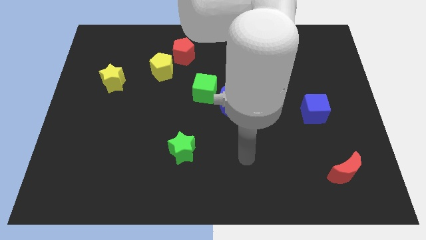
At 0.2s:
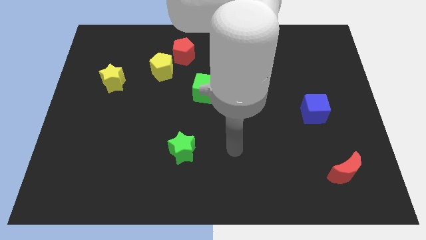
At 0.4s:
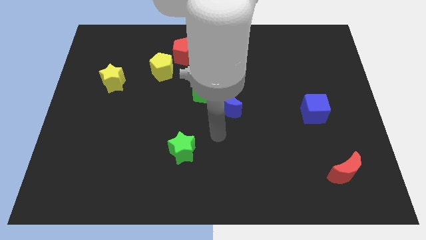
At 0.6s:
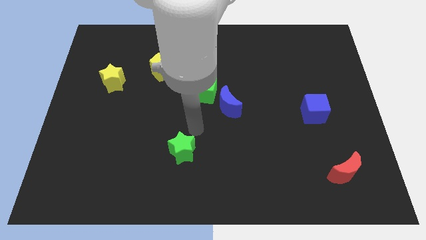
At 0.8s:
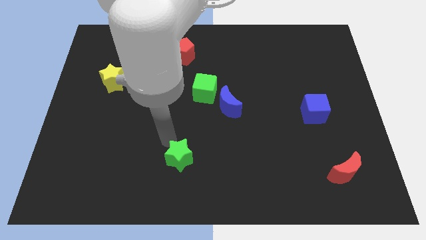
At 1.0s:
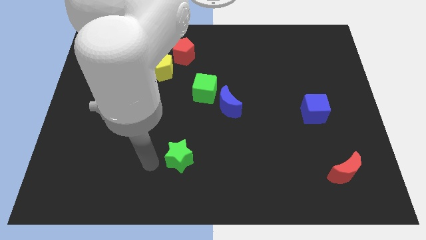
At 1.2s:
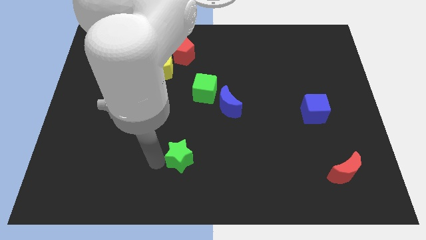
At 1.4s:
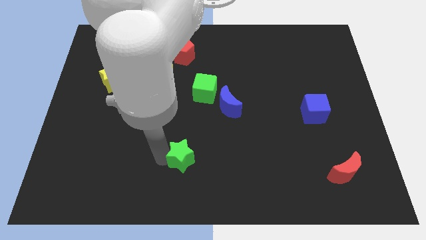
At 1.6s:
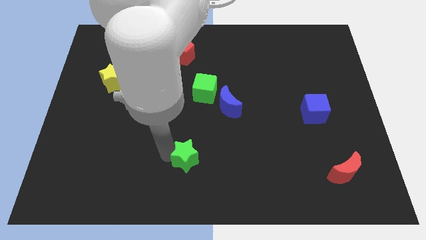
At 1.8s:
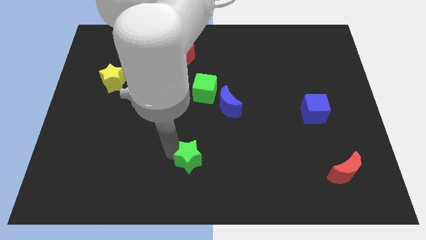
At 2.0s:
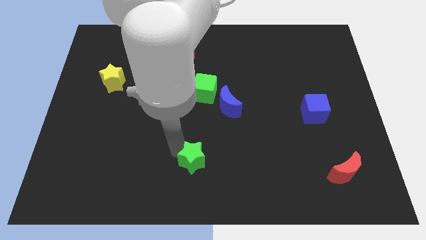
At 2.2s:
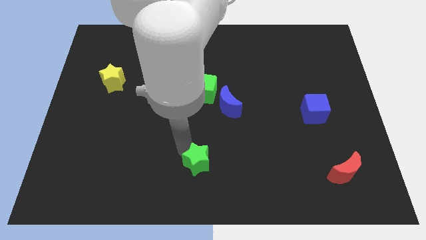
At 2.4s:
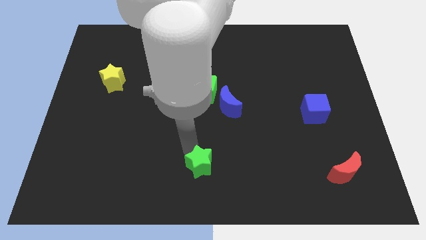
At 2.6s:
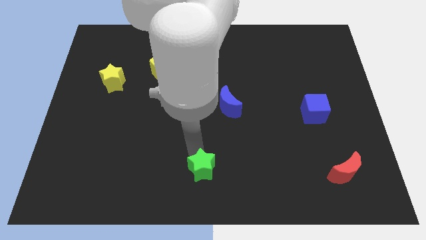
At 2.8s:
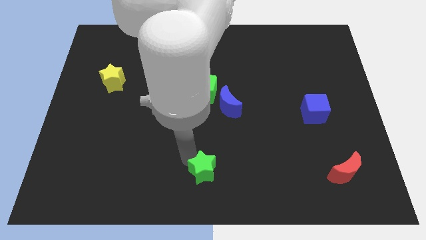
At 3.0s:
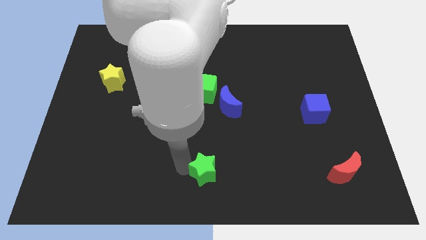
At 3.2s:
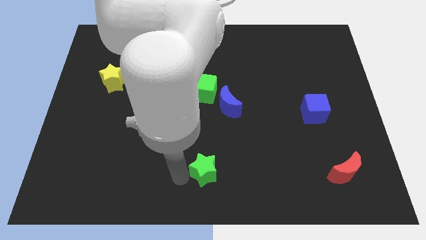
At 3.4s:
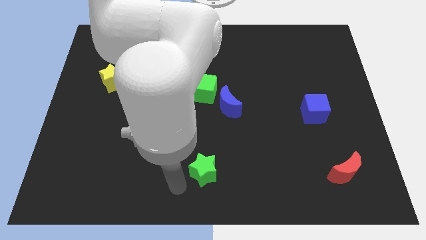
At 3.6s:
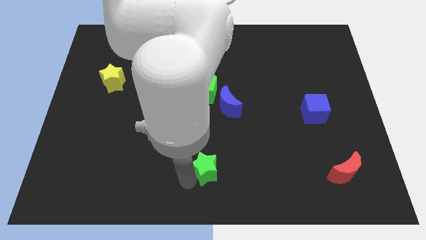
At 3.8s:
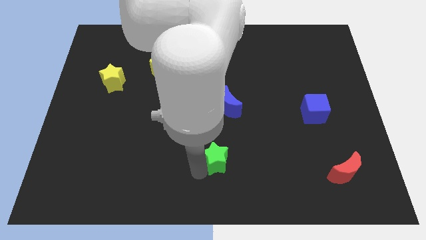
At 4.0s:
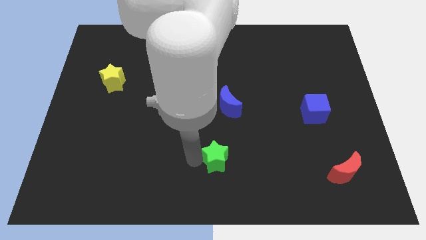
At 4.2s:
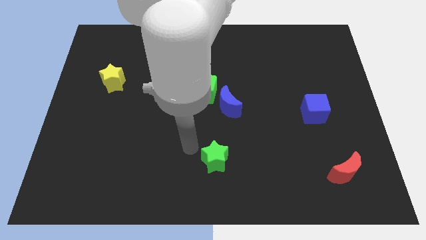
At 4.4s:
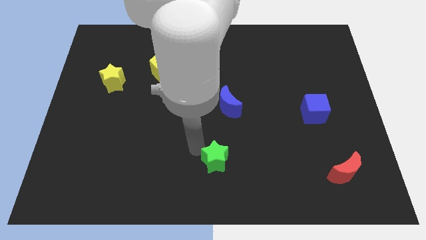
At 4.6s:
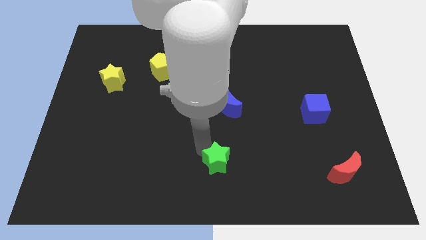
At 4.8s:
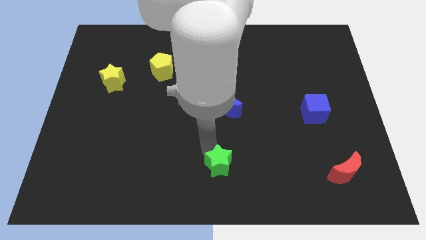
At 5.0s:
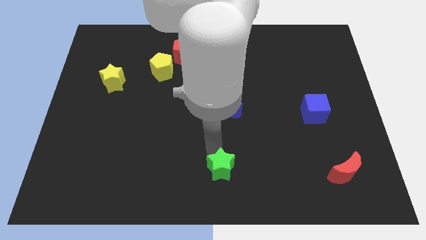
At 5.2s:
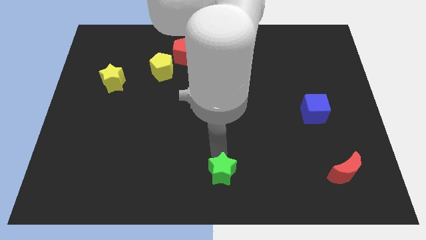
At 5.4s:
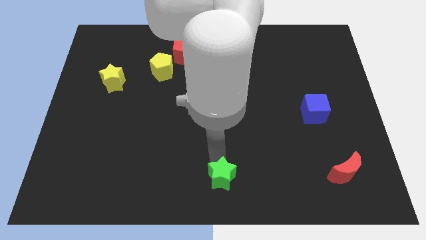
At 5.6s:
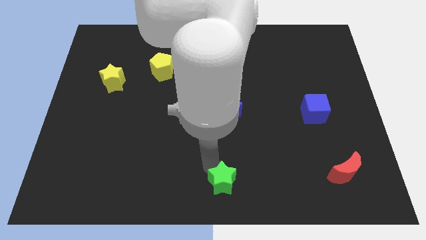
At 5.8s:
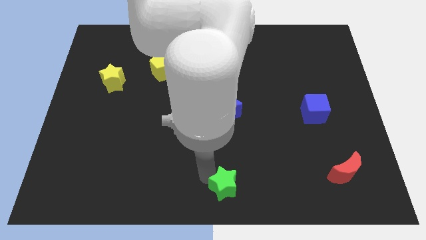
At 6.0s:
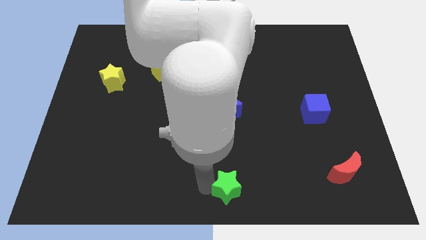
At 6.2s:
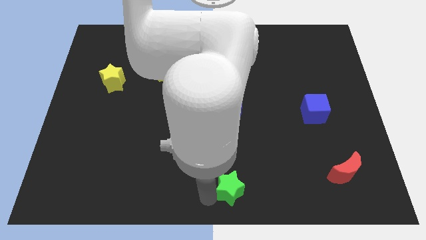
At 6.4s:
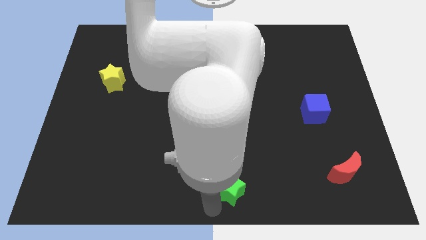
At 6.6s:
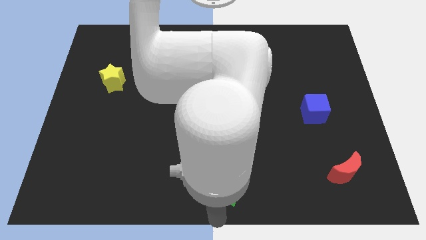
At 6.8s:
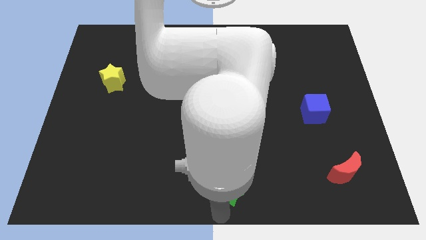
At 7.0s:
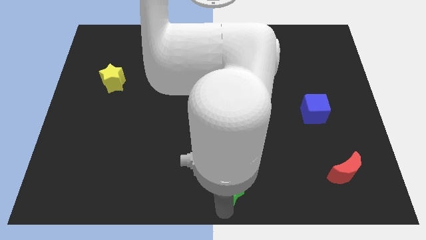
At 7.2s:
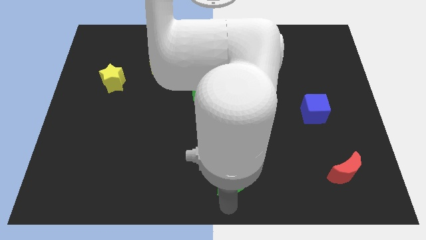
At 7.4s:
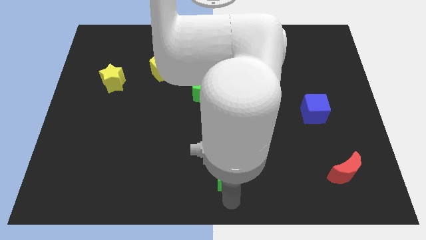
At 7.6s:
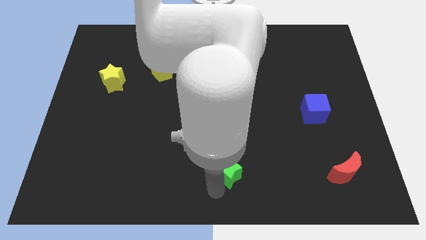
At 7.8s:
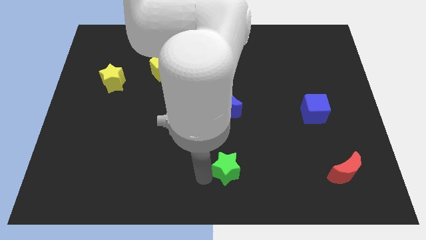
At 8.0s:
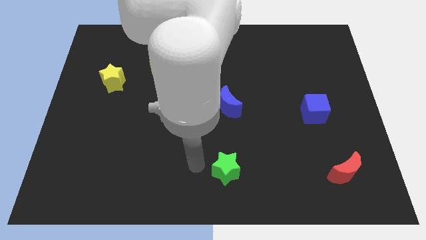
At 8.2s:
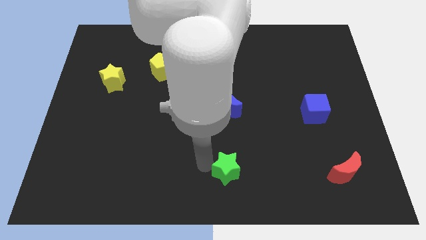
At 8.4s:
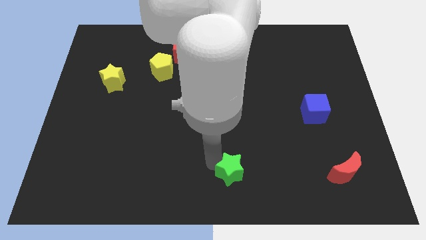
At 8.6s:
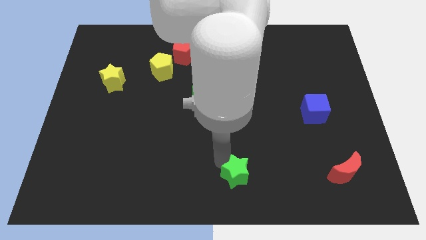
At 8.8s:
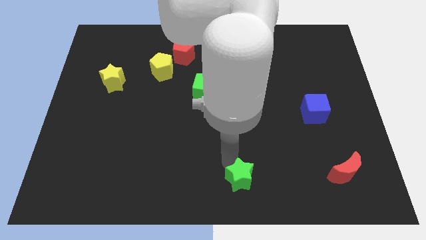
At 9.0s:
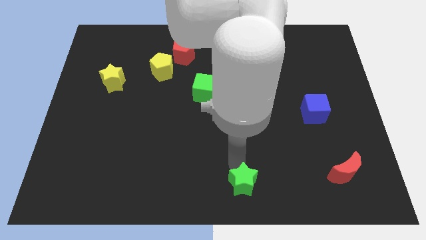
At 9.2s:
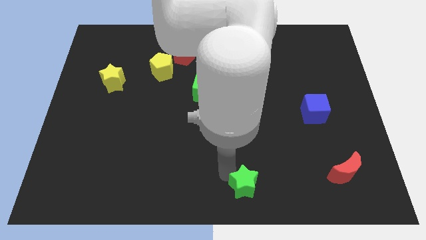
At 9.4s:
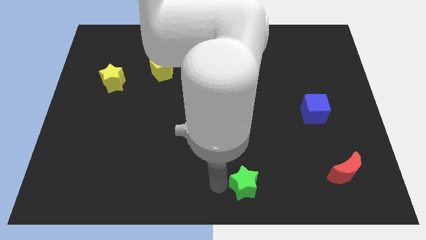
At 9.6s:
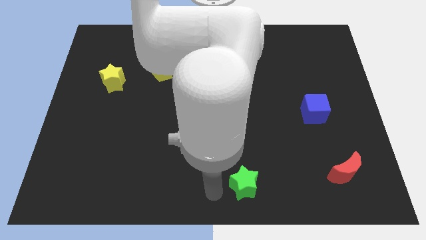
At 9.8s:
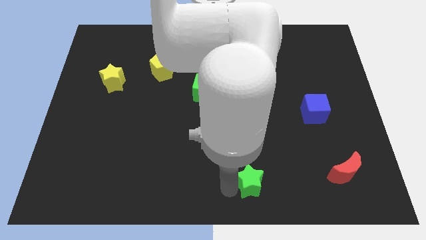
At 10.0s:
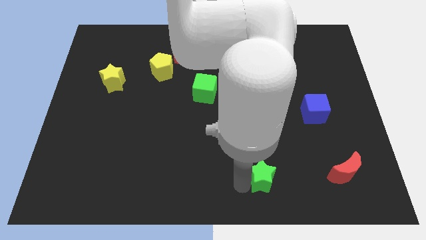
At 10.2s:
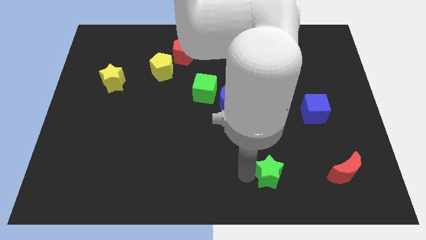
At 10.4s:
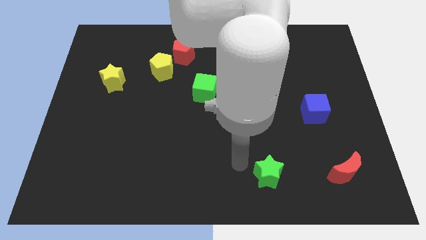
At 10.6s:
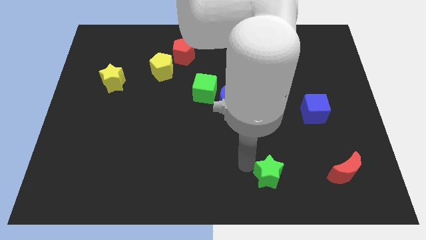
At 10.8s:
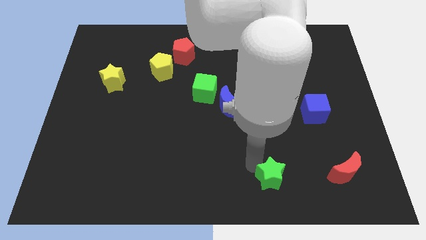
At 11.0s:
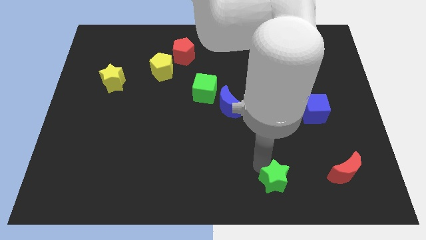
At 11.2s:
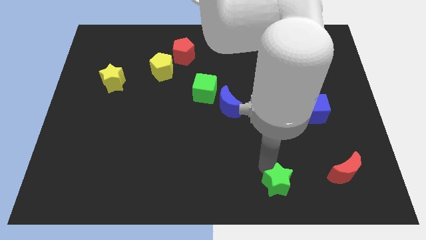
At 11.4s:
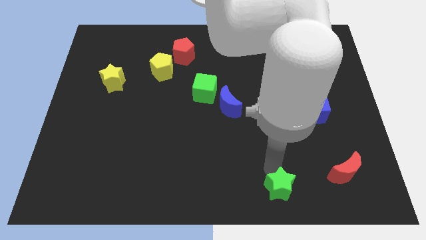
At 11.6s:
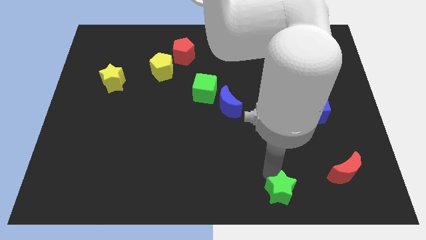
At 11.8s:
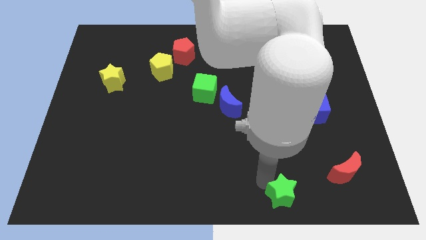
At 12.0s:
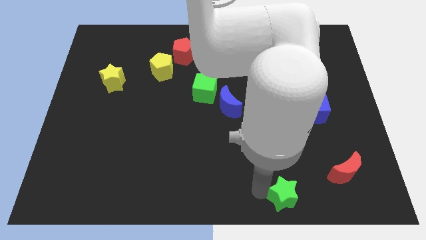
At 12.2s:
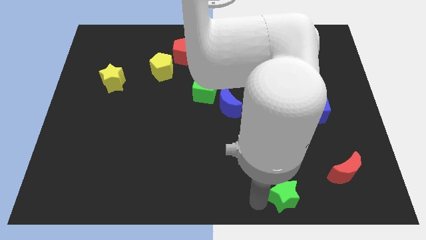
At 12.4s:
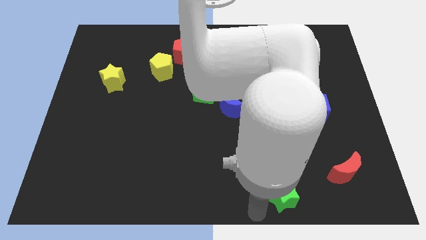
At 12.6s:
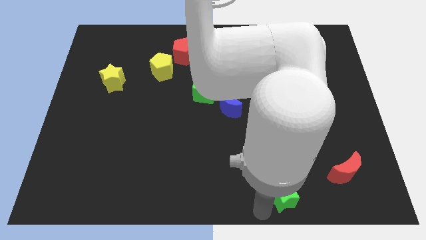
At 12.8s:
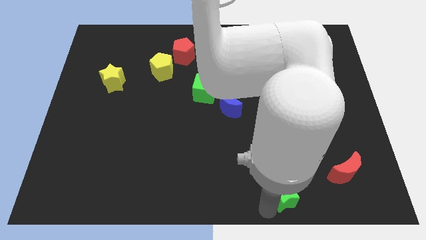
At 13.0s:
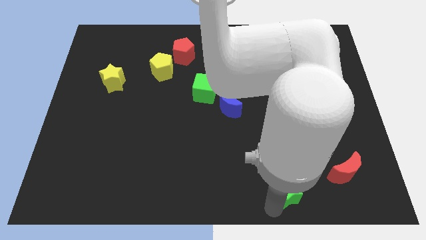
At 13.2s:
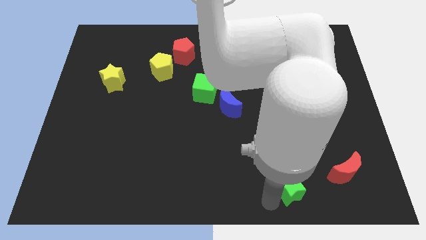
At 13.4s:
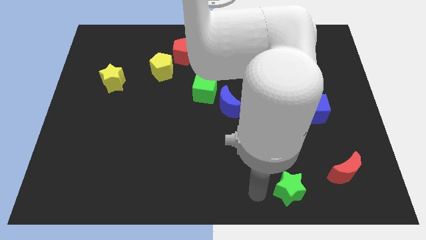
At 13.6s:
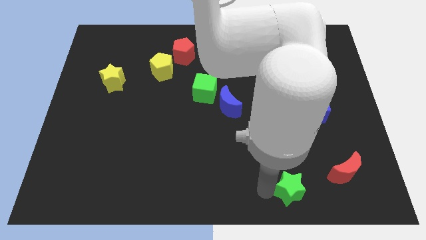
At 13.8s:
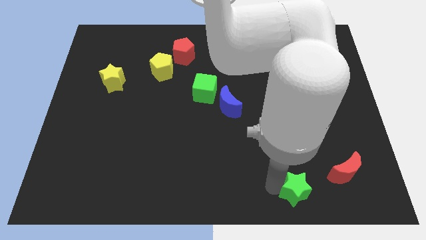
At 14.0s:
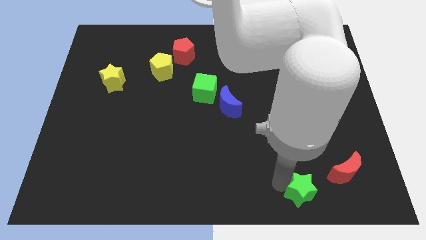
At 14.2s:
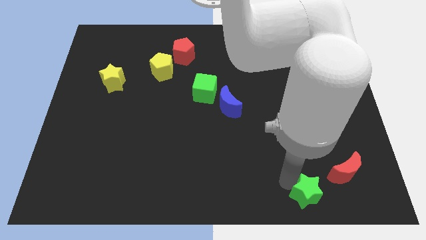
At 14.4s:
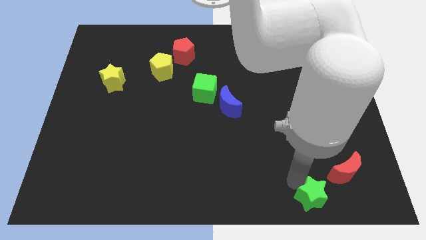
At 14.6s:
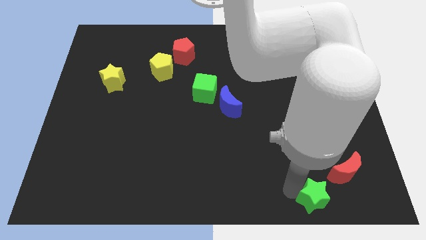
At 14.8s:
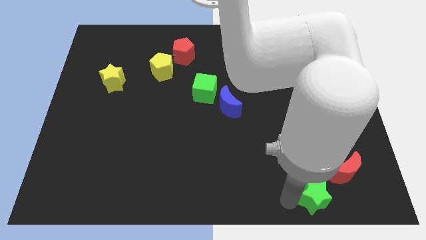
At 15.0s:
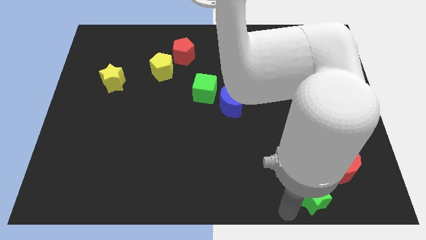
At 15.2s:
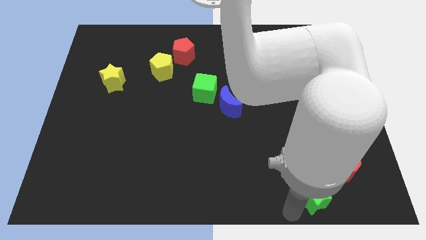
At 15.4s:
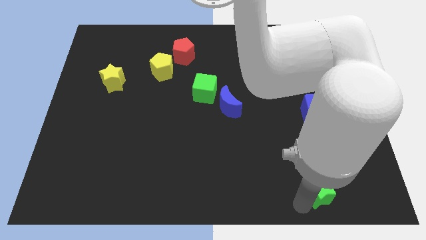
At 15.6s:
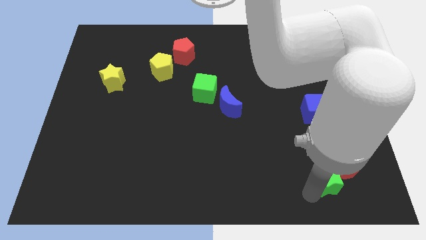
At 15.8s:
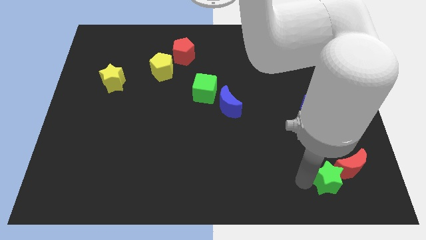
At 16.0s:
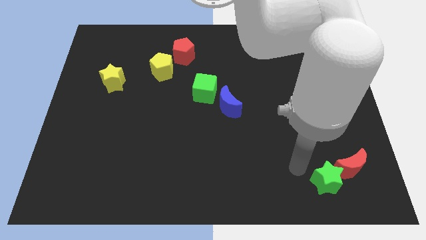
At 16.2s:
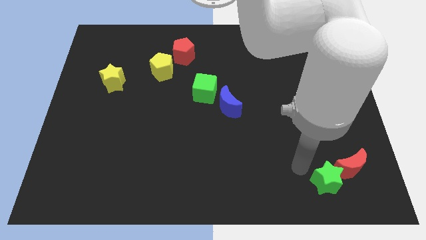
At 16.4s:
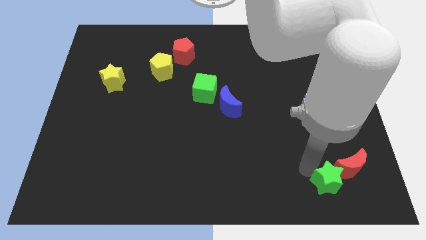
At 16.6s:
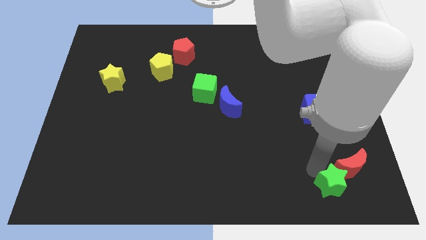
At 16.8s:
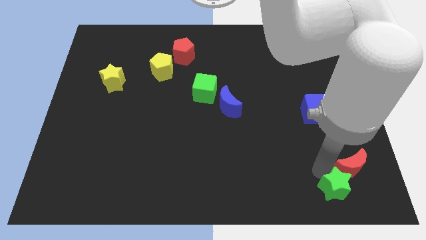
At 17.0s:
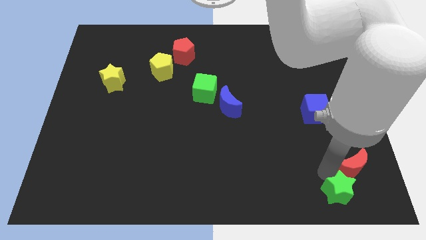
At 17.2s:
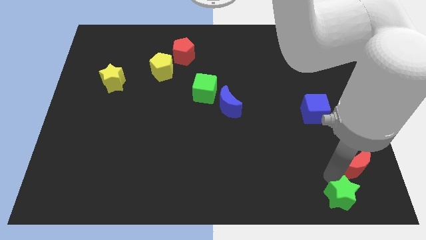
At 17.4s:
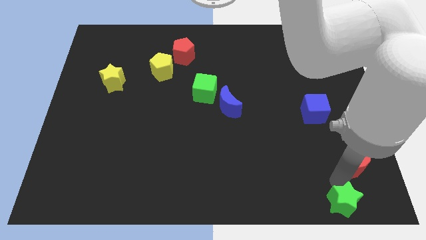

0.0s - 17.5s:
push the green star to the bottom right of the board
